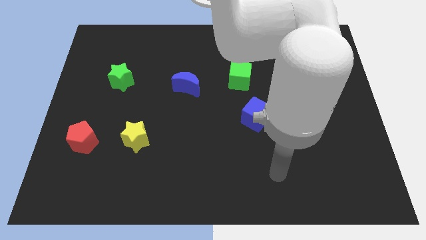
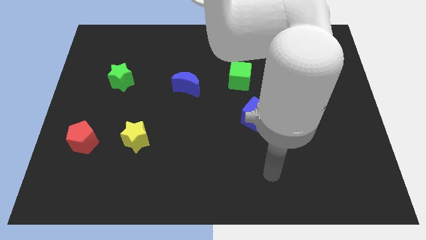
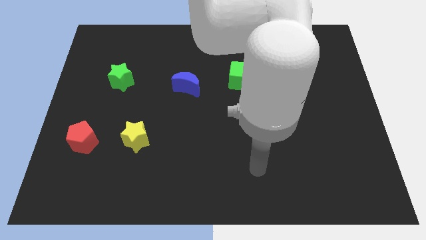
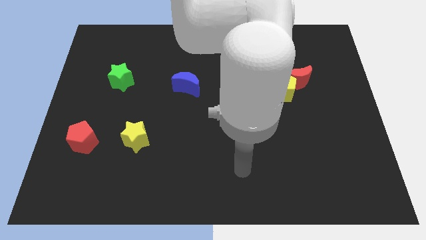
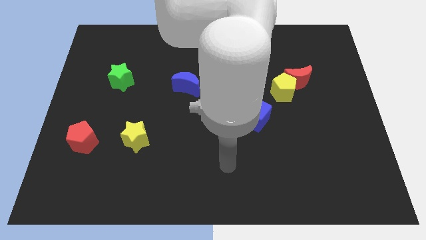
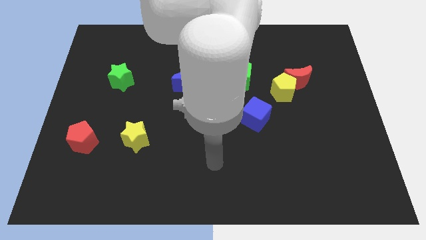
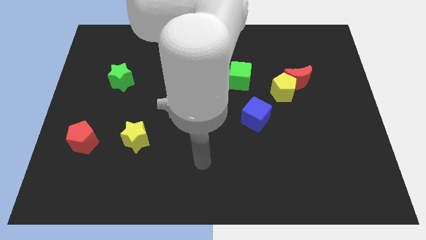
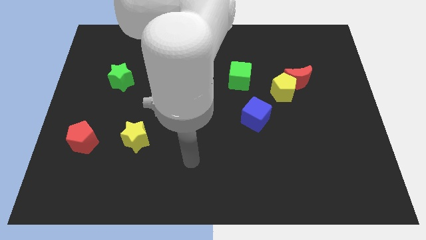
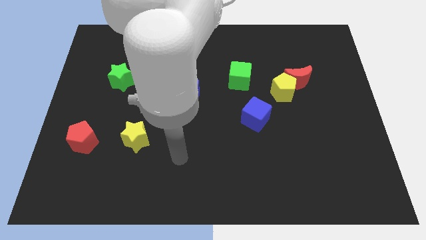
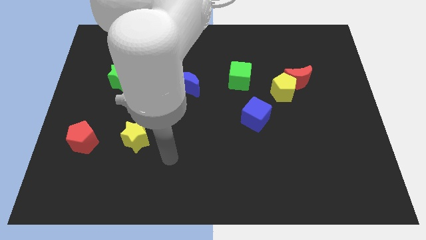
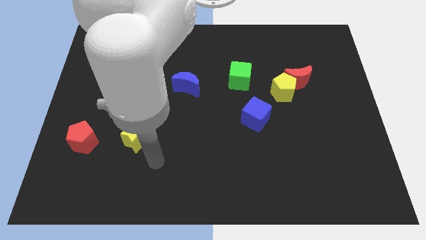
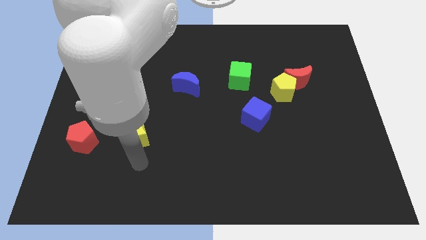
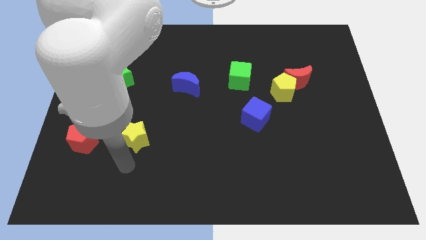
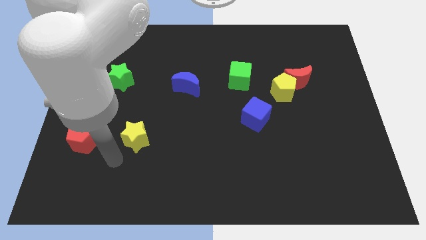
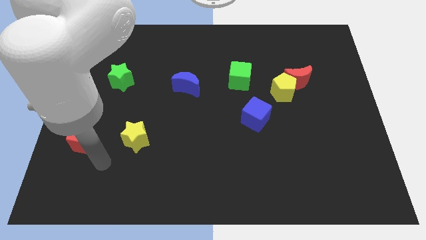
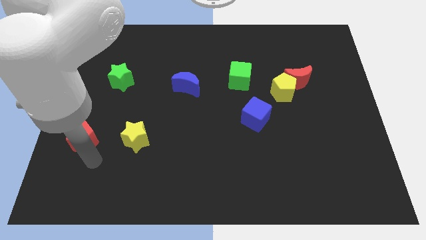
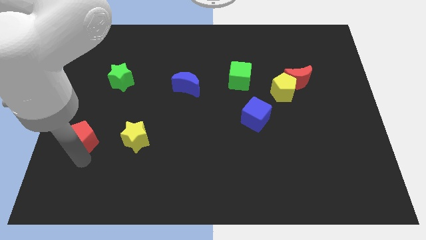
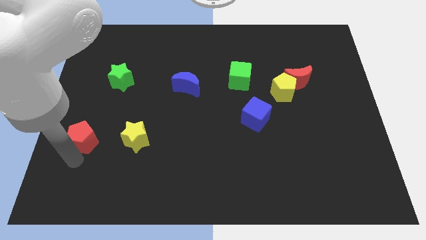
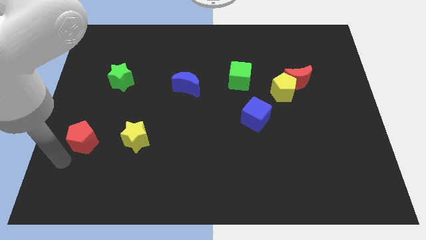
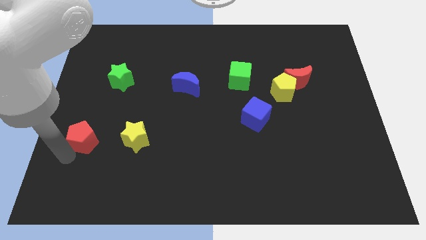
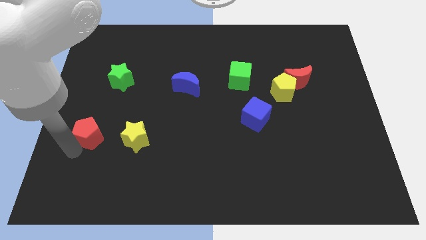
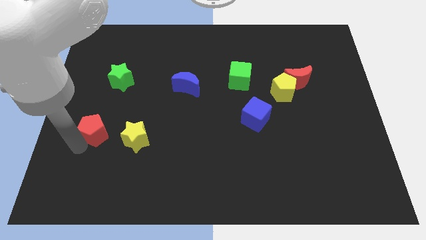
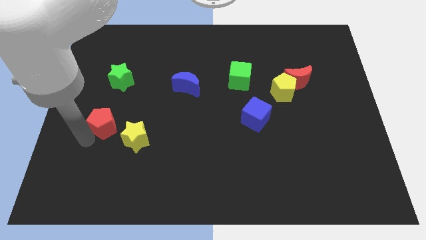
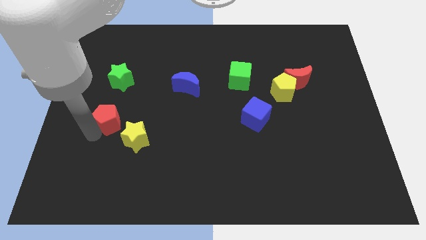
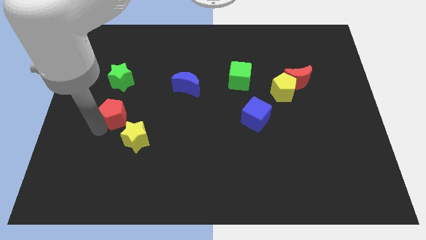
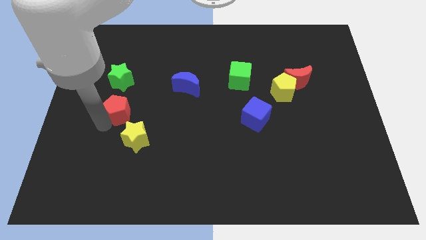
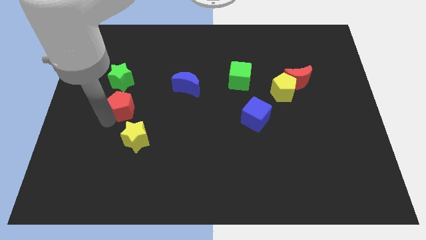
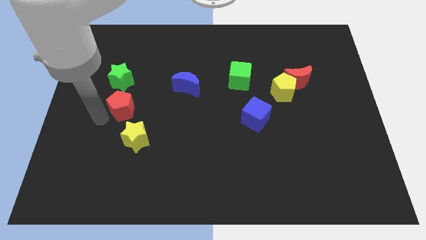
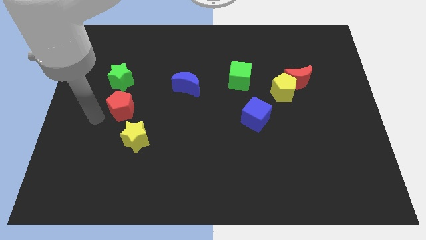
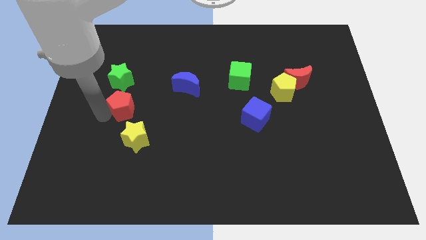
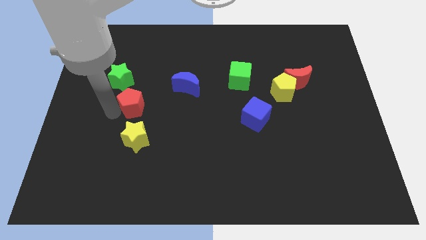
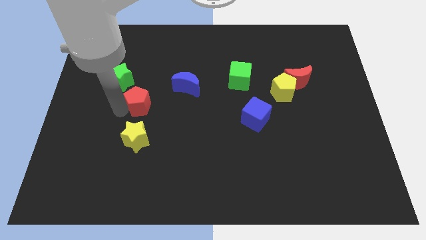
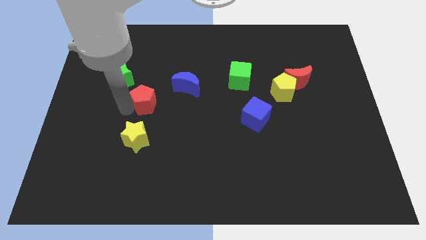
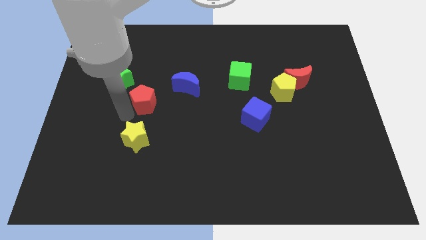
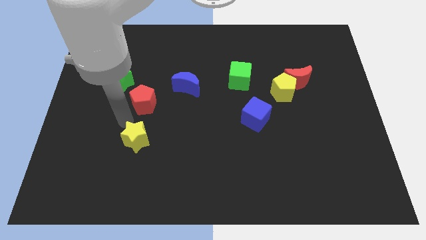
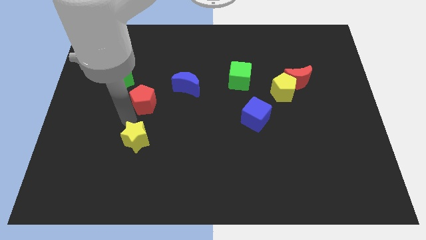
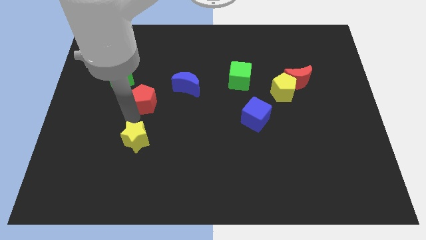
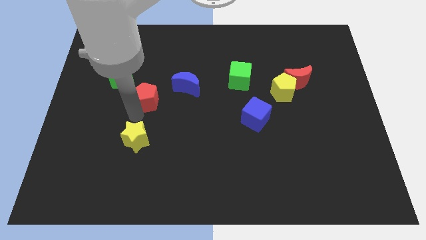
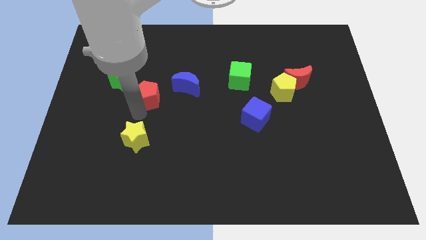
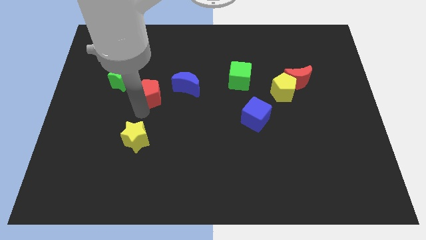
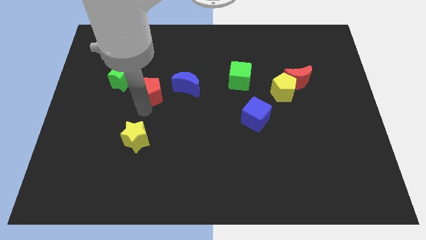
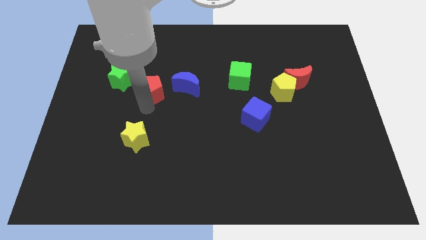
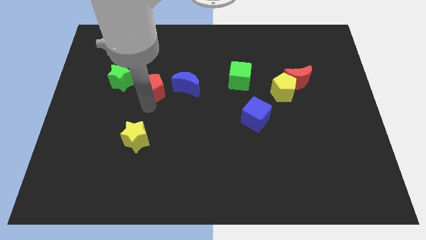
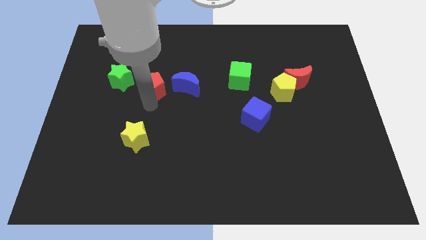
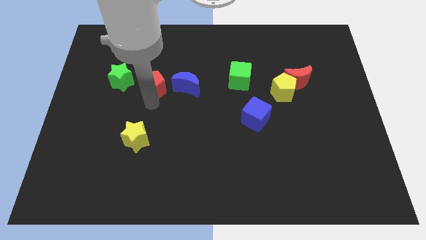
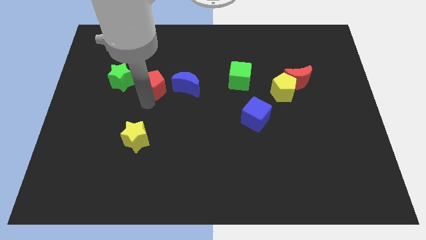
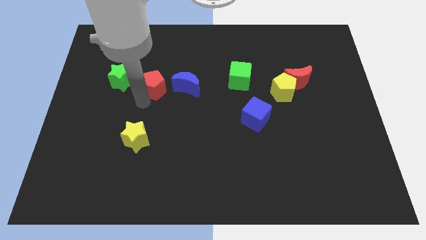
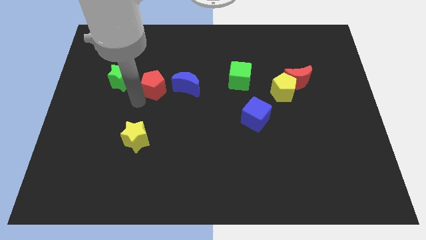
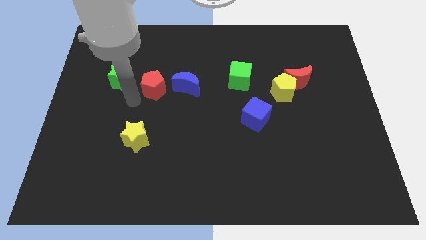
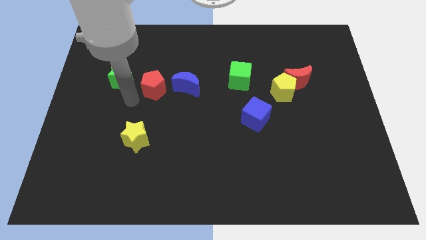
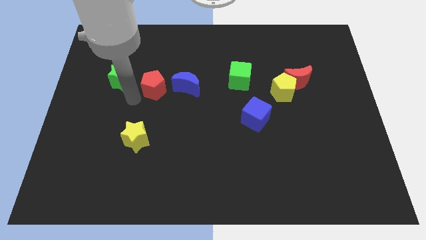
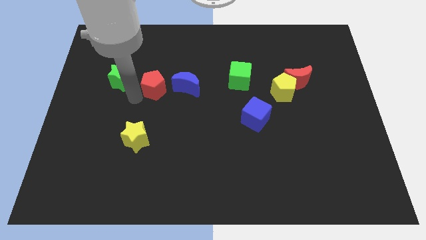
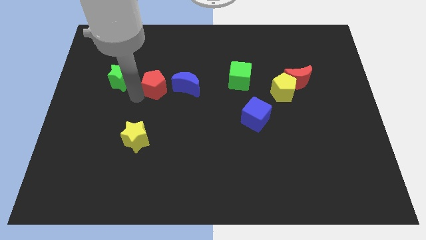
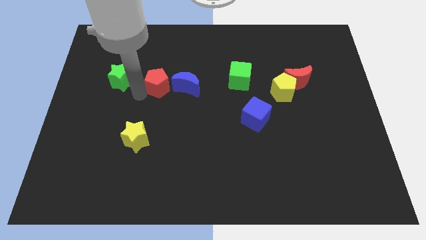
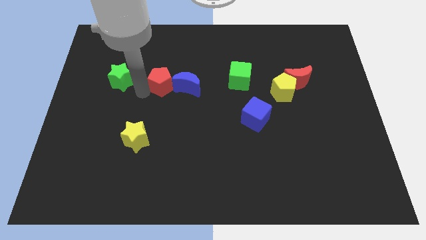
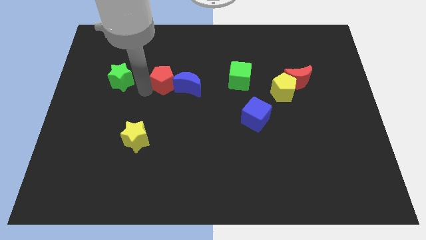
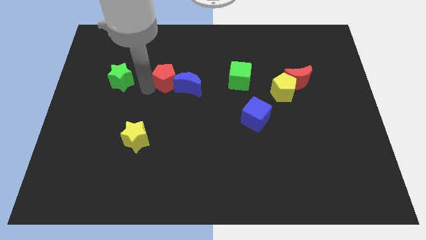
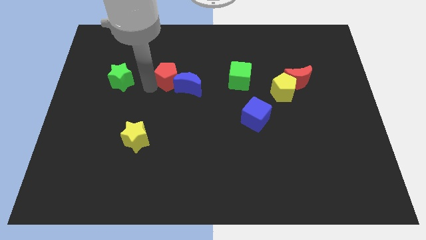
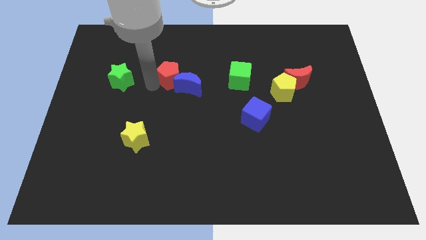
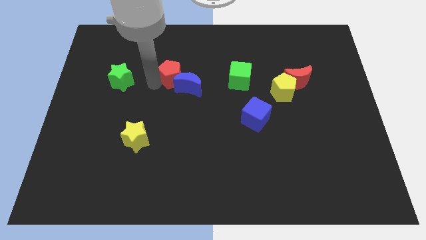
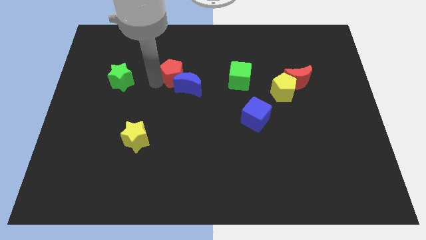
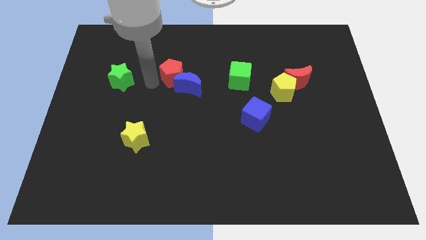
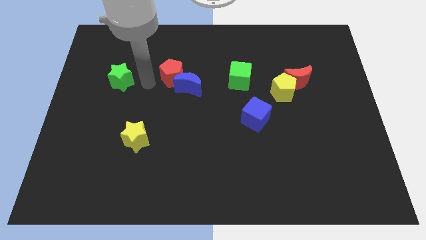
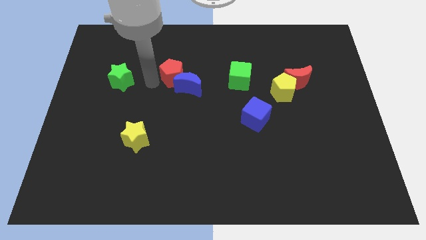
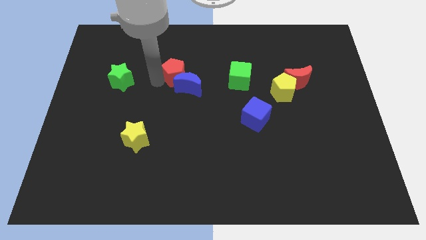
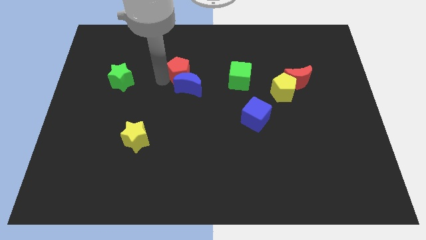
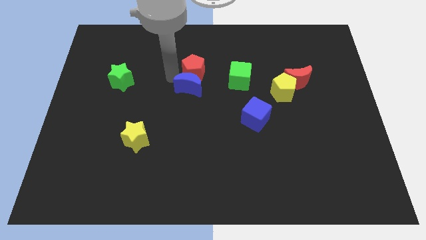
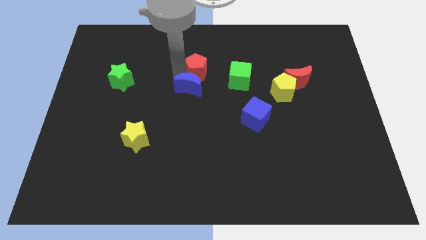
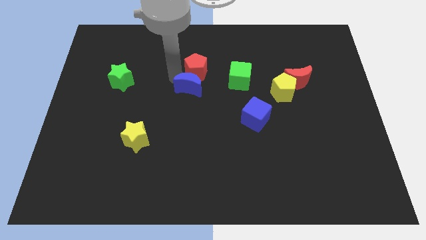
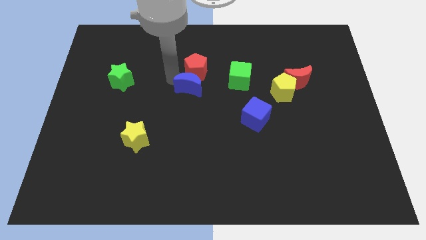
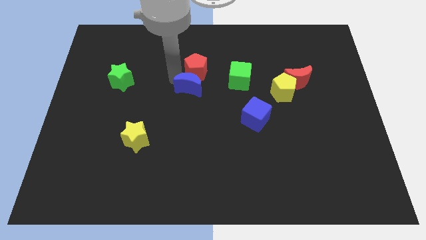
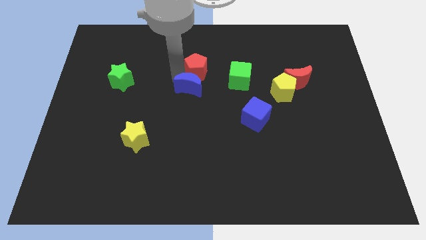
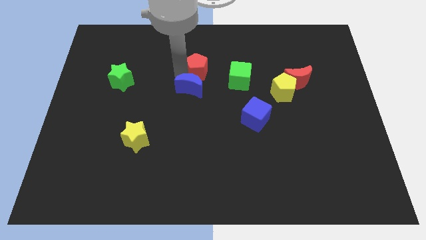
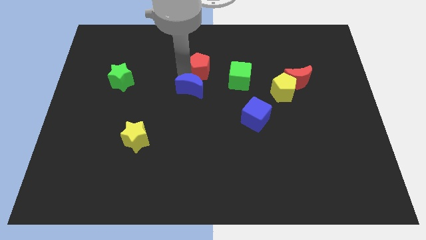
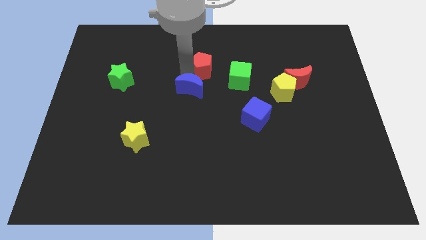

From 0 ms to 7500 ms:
put the red pentagon to the top left side of the green cube
